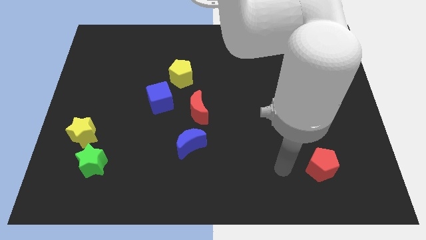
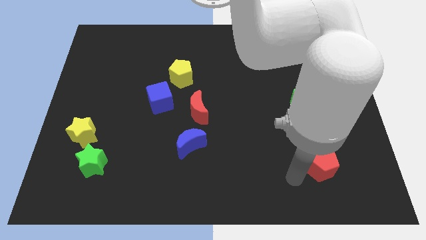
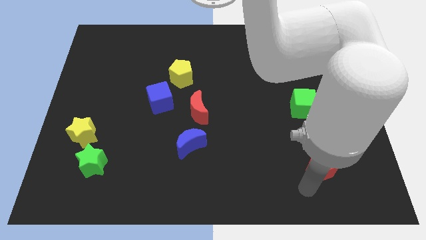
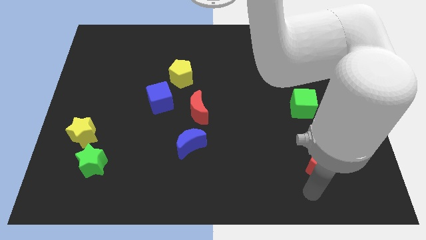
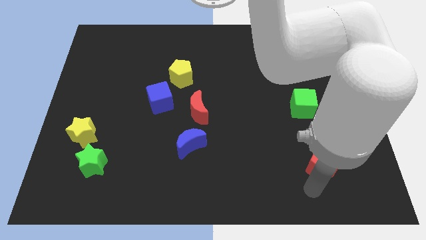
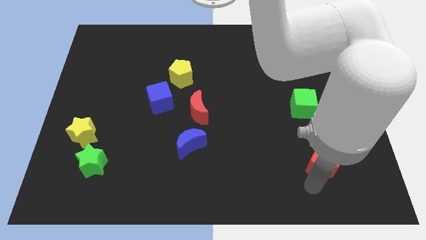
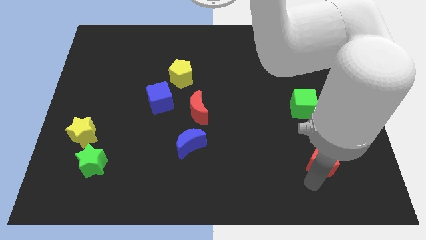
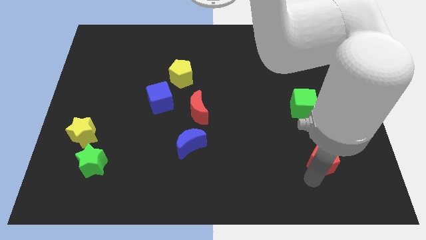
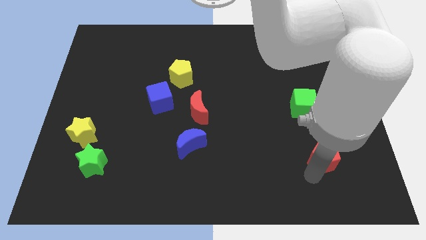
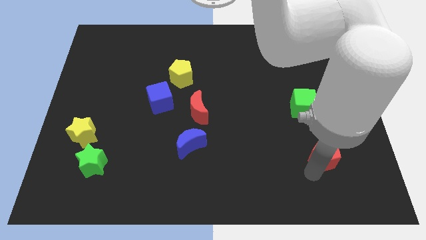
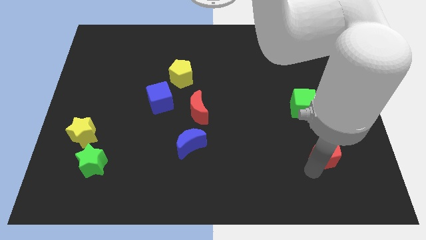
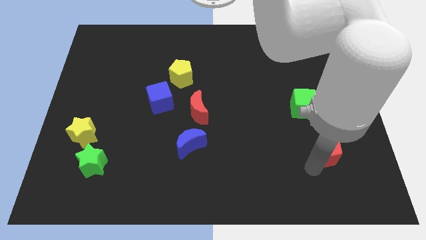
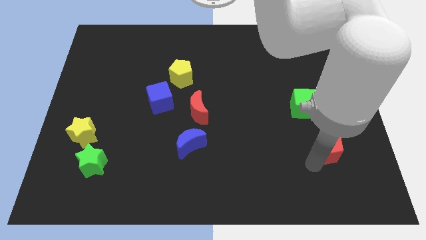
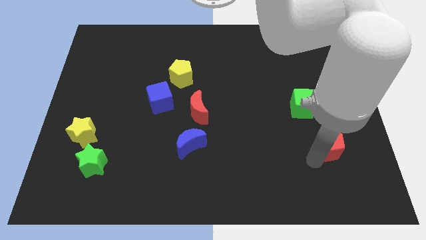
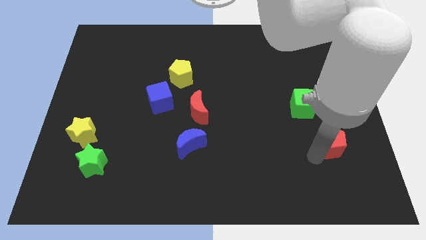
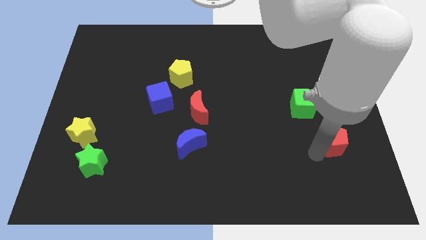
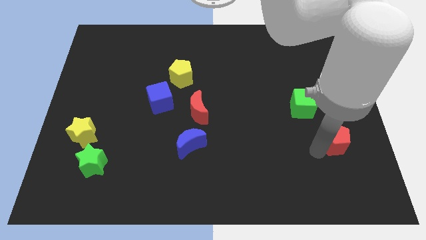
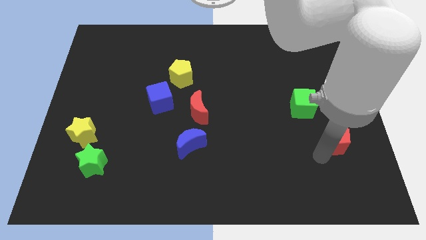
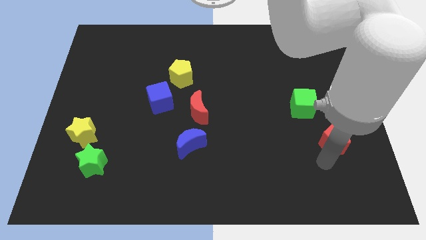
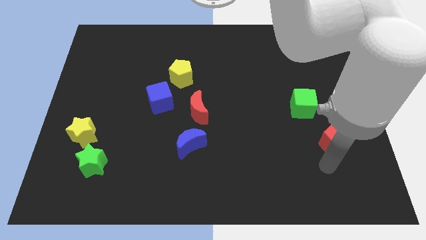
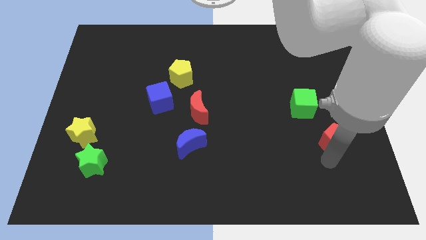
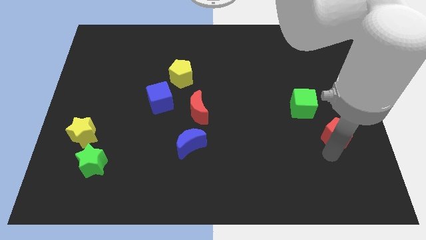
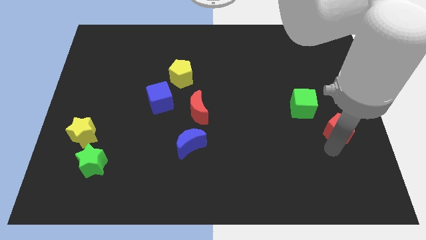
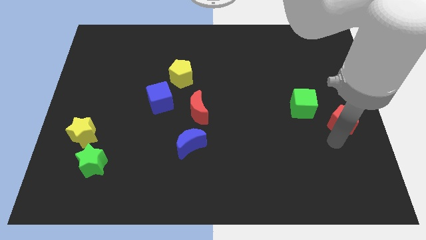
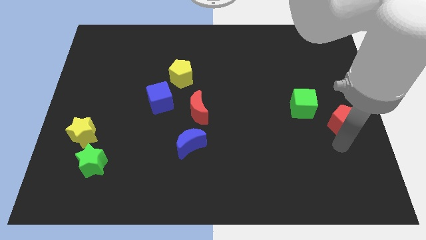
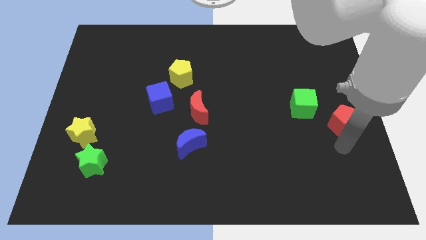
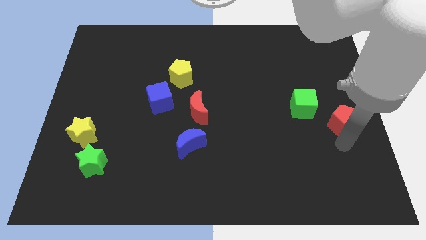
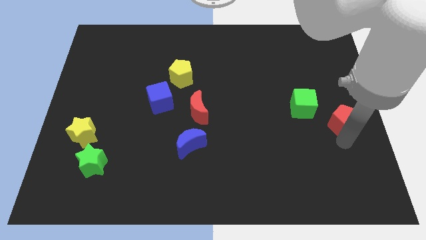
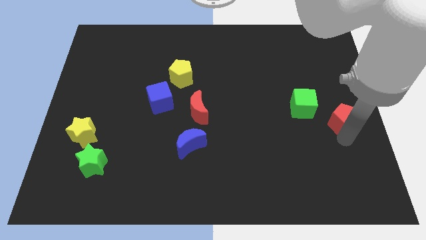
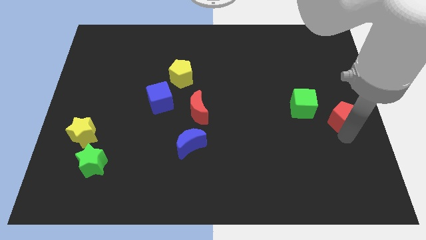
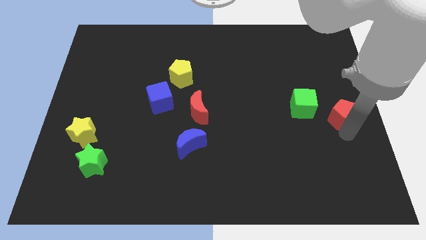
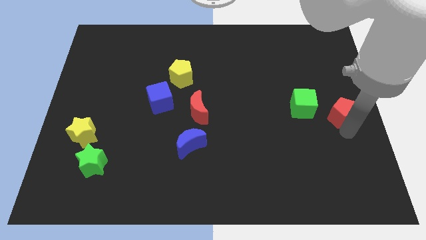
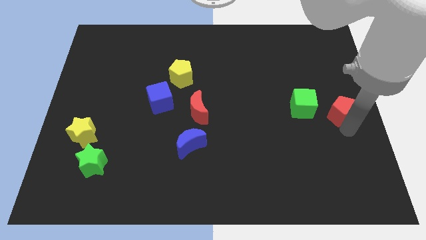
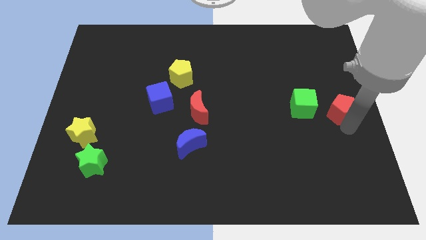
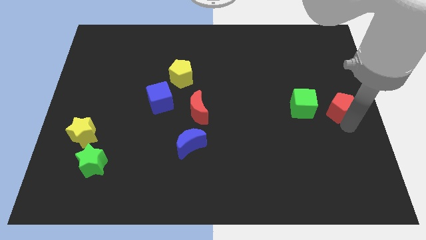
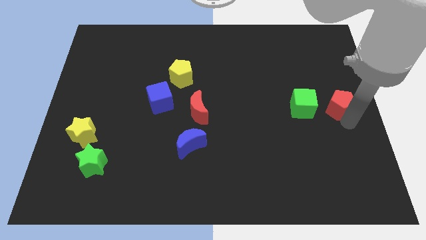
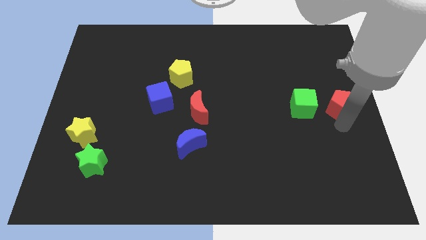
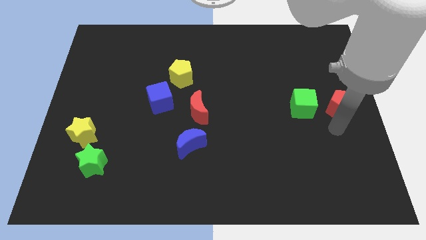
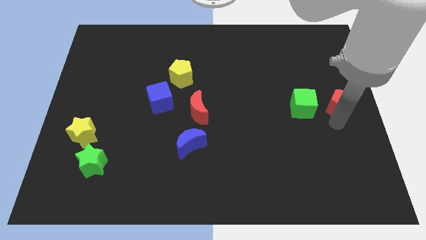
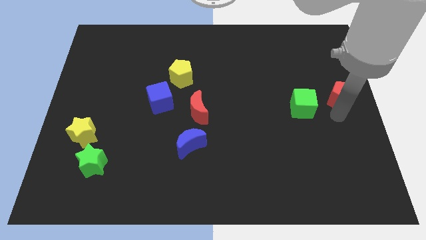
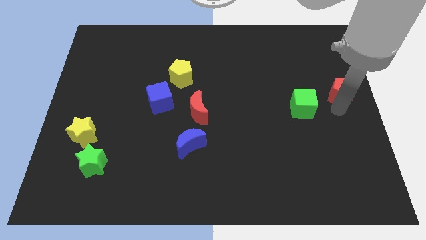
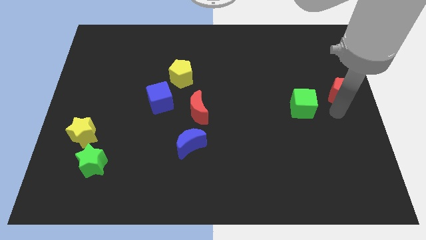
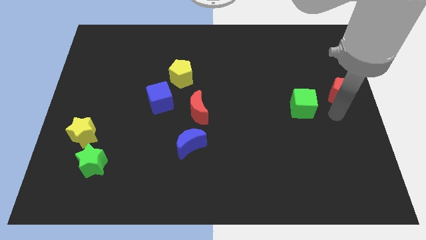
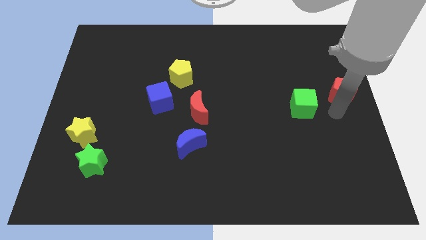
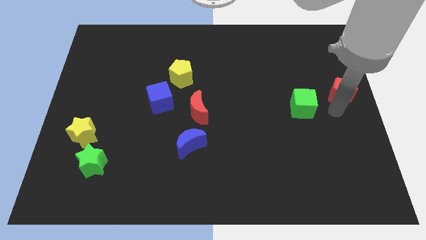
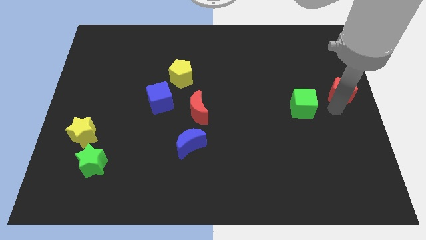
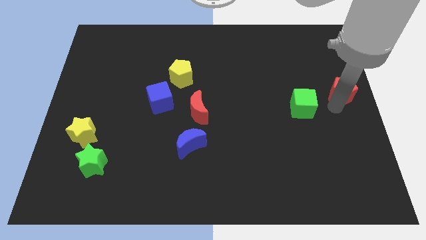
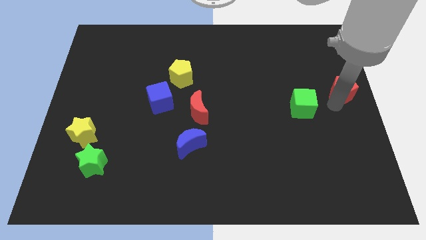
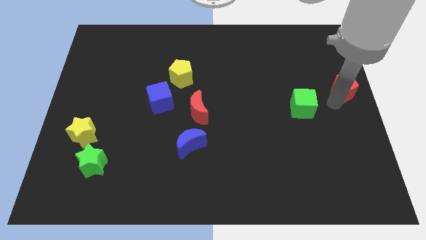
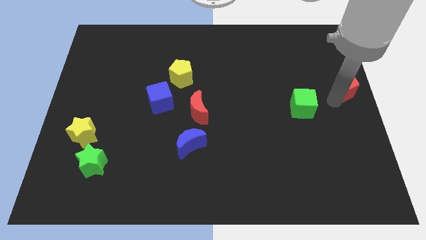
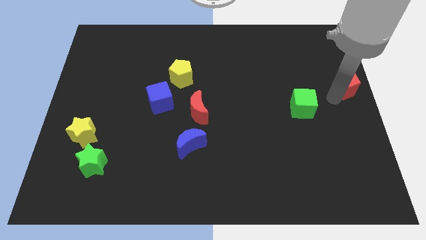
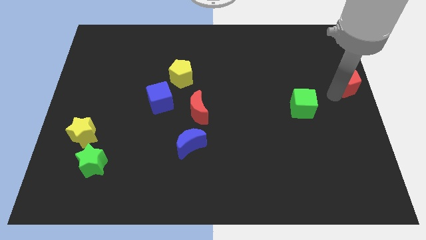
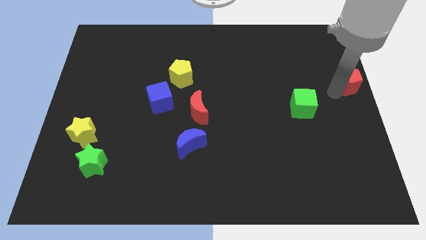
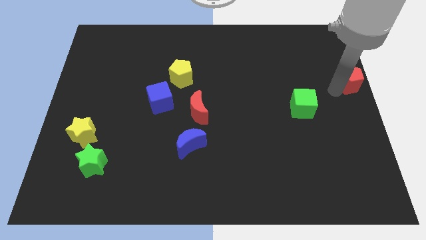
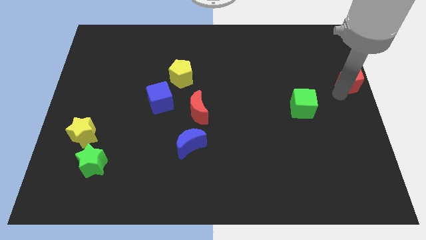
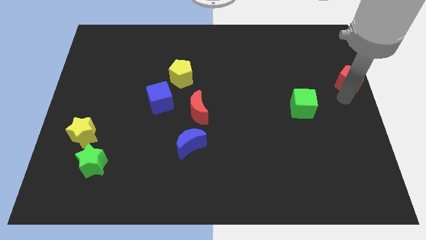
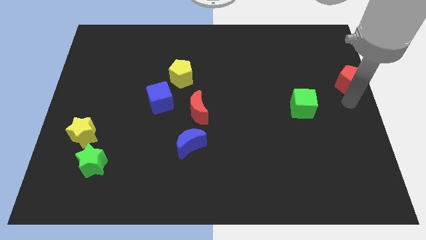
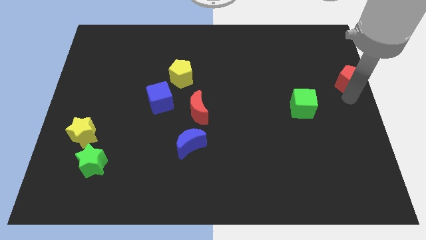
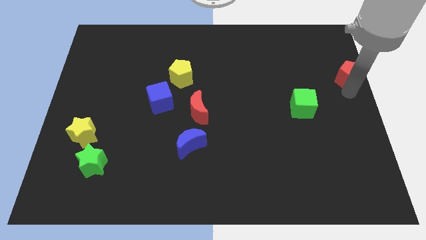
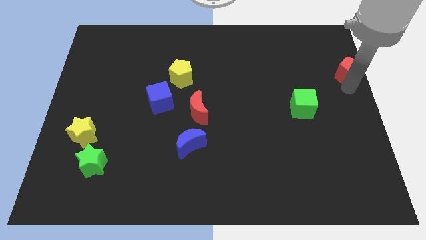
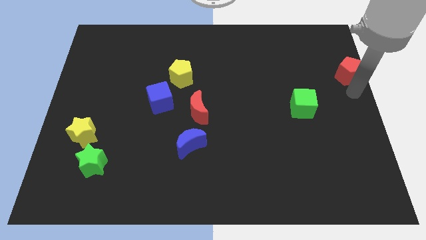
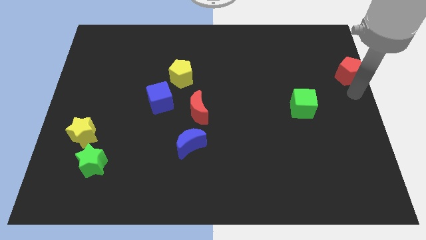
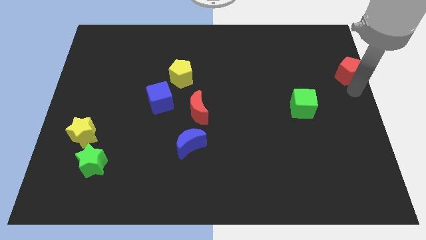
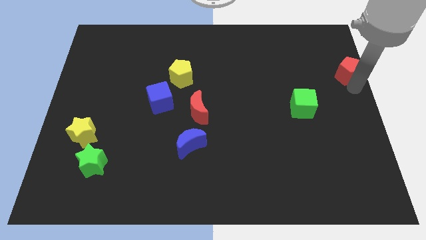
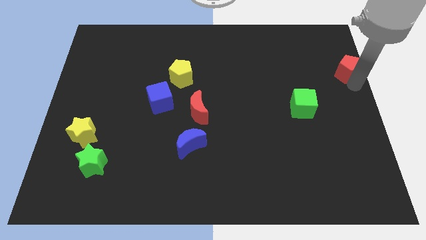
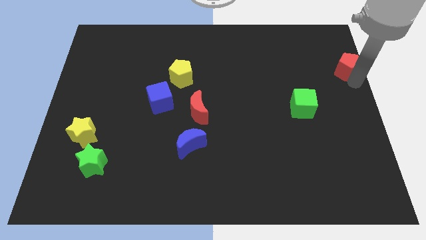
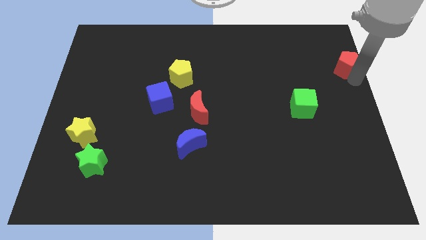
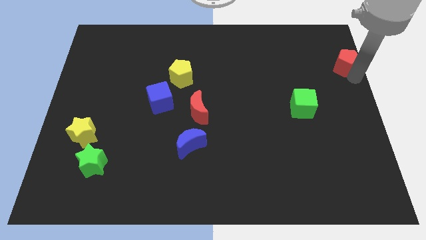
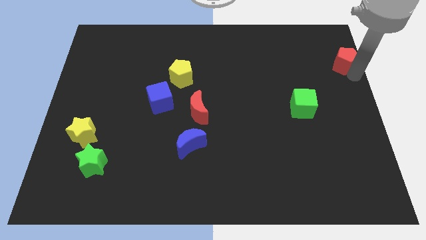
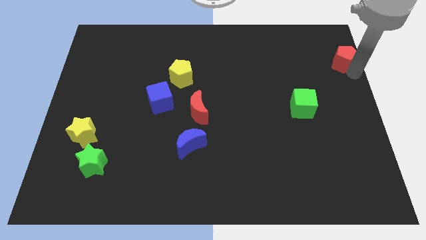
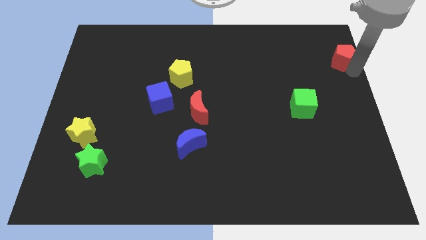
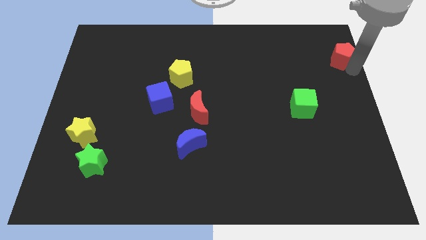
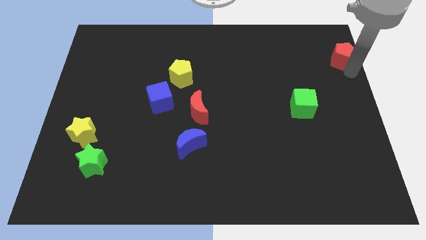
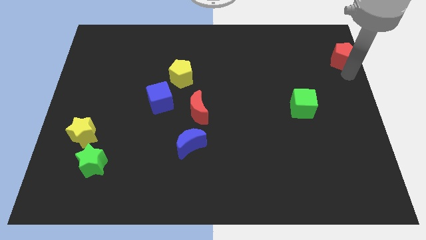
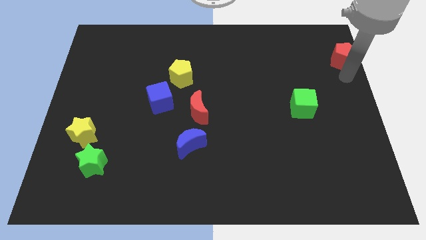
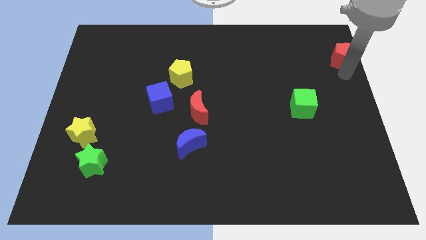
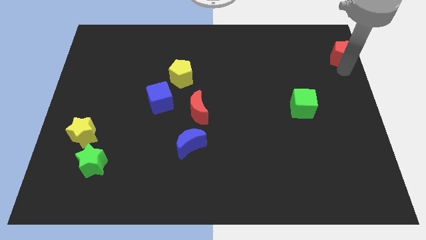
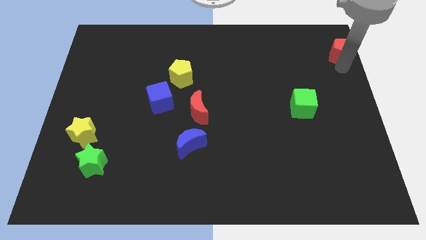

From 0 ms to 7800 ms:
put the red pentagon to the top right of the board
